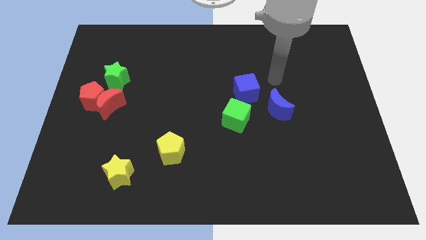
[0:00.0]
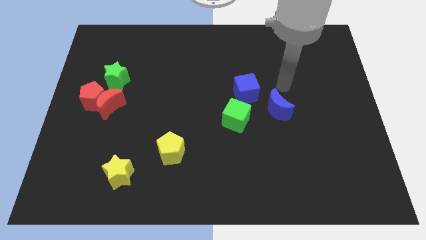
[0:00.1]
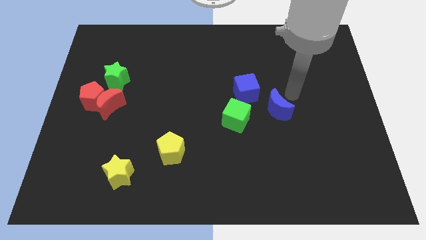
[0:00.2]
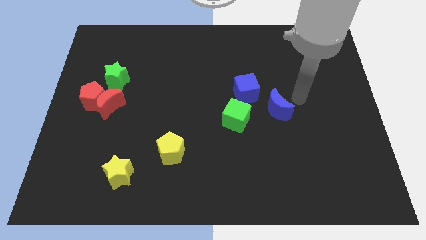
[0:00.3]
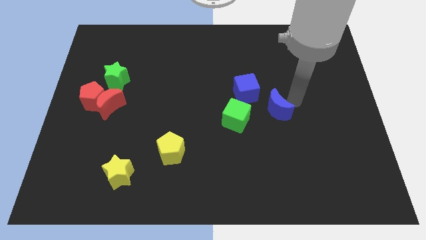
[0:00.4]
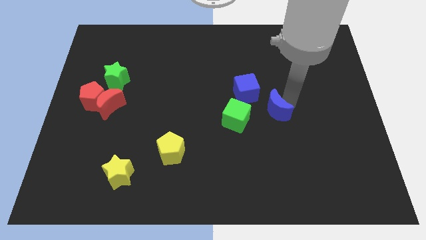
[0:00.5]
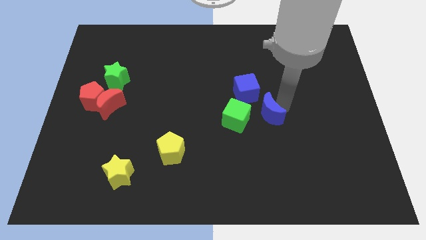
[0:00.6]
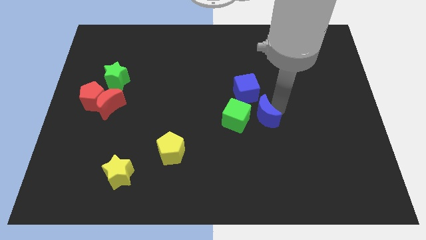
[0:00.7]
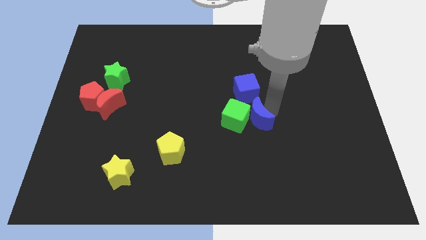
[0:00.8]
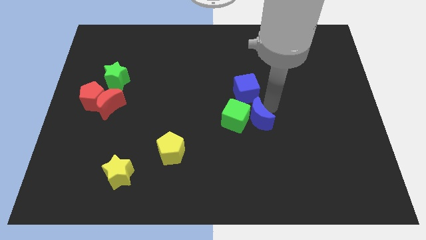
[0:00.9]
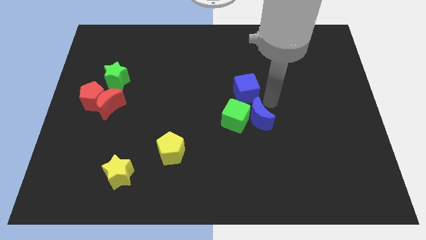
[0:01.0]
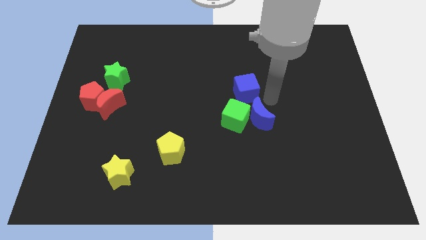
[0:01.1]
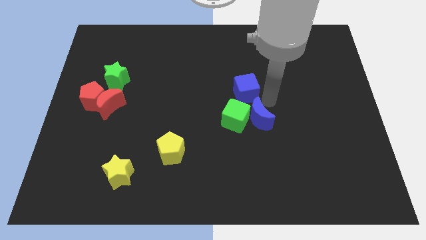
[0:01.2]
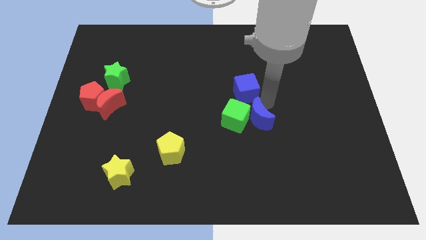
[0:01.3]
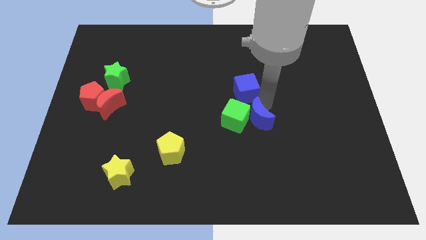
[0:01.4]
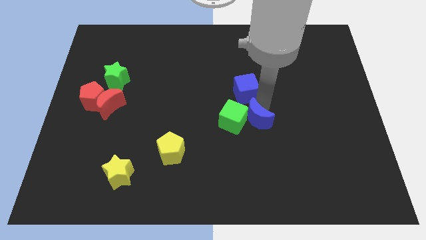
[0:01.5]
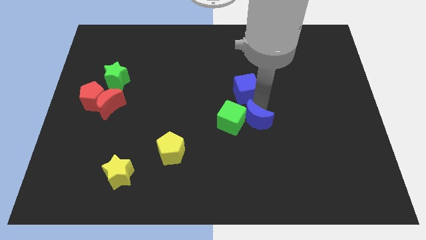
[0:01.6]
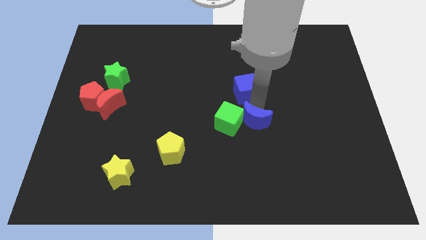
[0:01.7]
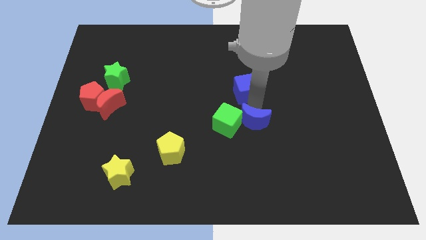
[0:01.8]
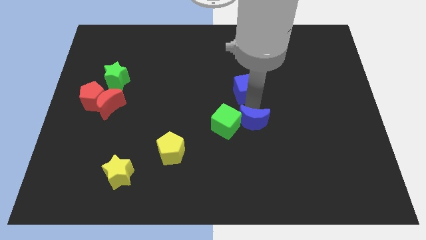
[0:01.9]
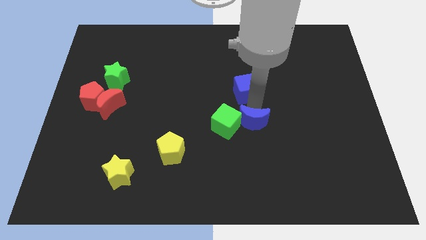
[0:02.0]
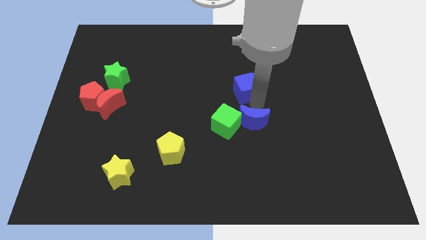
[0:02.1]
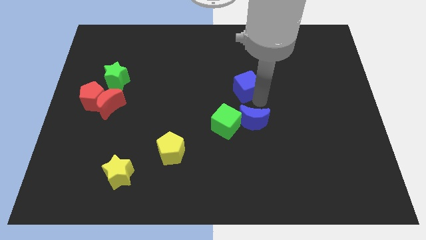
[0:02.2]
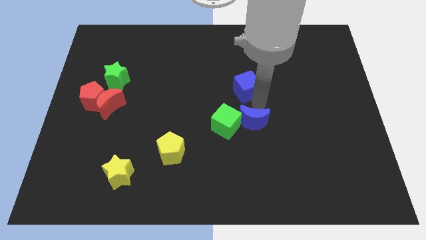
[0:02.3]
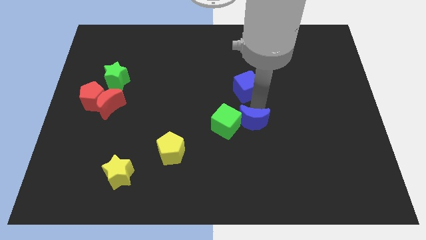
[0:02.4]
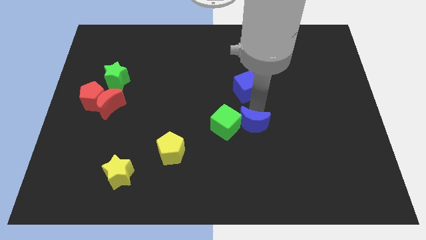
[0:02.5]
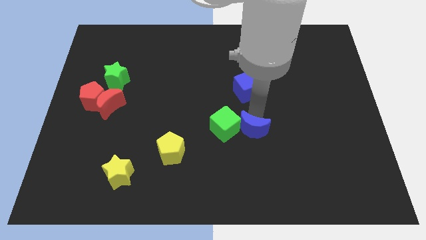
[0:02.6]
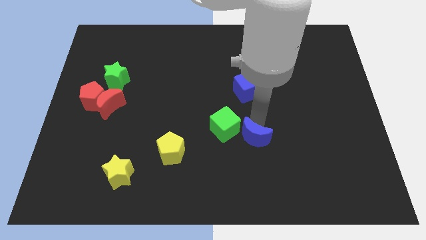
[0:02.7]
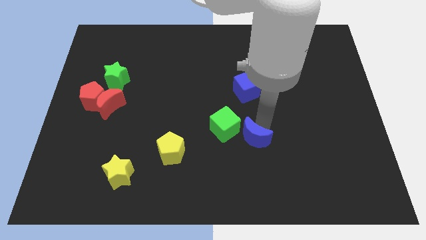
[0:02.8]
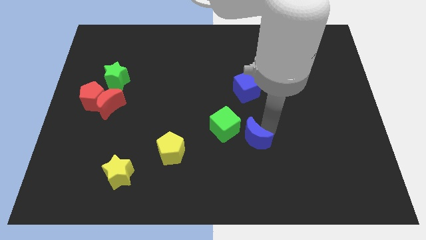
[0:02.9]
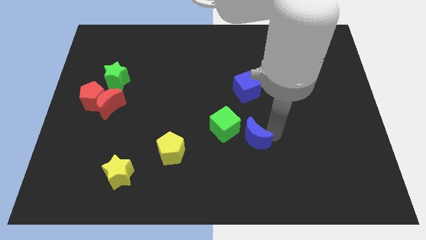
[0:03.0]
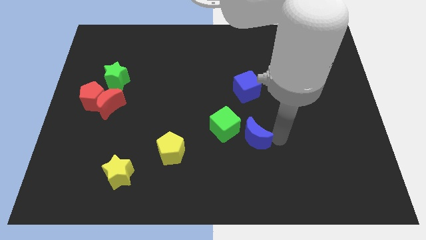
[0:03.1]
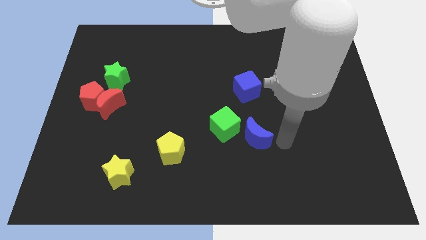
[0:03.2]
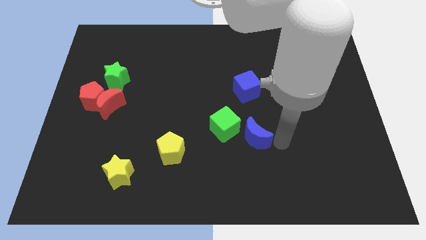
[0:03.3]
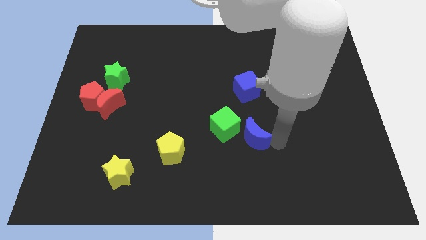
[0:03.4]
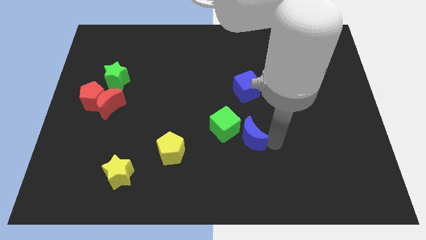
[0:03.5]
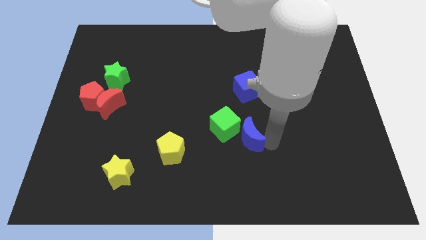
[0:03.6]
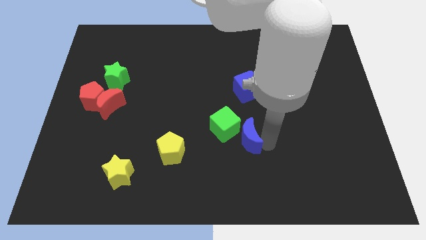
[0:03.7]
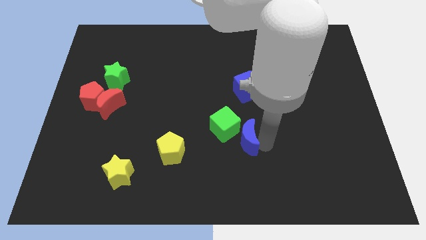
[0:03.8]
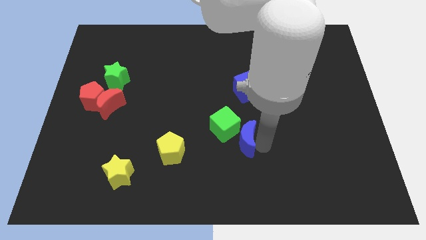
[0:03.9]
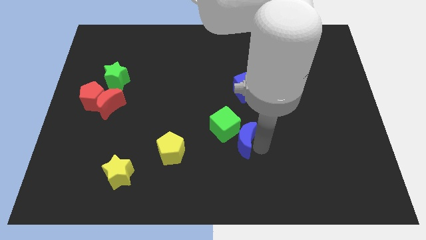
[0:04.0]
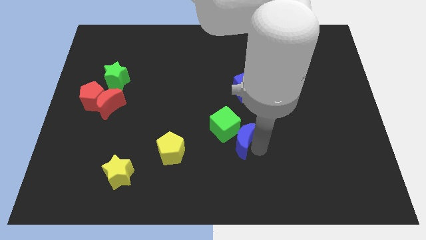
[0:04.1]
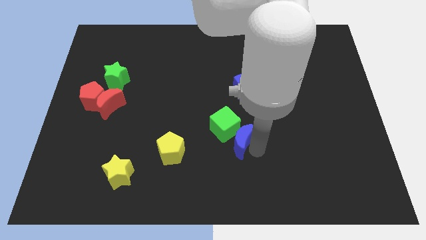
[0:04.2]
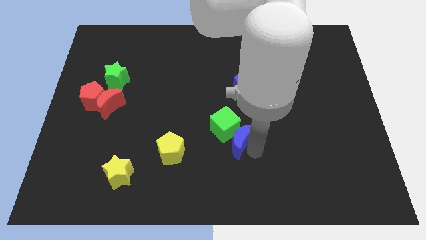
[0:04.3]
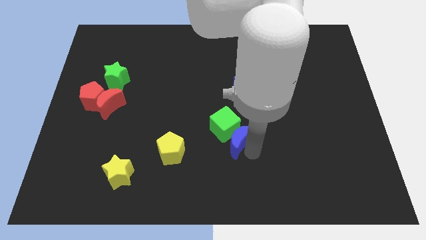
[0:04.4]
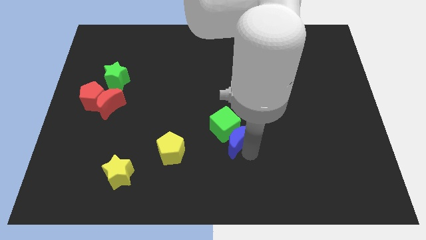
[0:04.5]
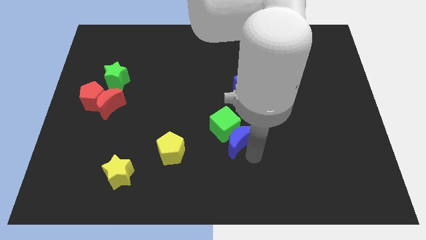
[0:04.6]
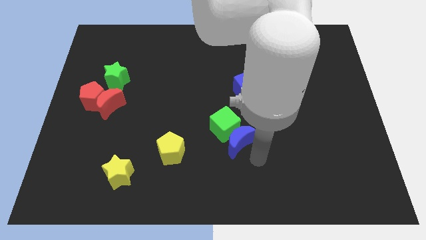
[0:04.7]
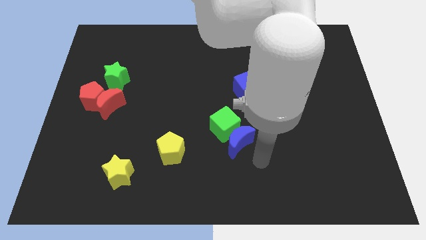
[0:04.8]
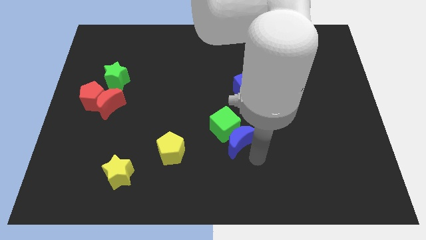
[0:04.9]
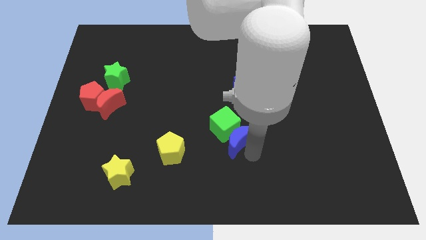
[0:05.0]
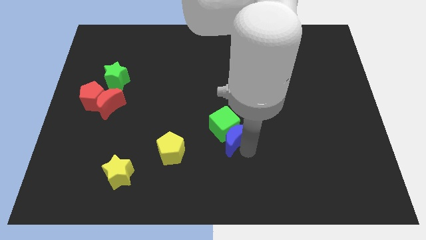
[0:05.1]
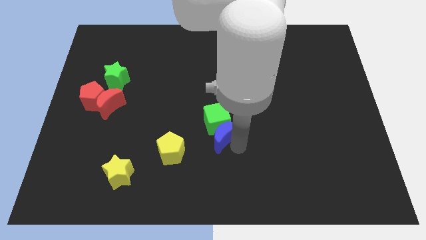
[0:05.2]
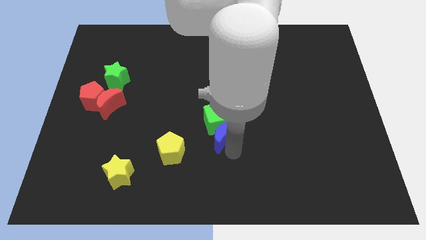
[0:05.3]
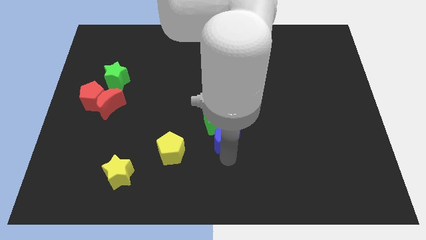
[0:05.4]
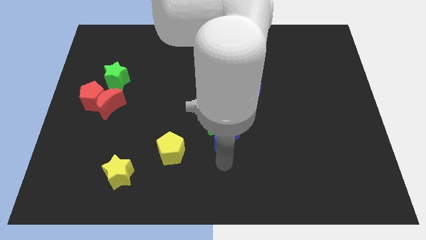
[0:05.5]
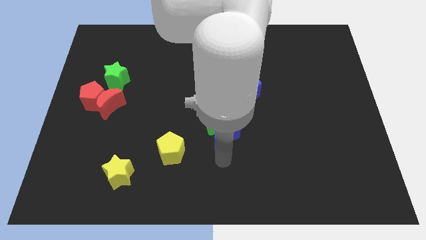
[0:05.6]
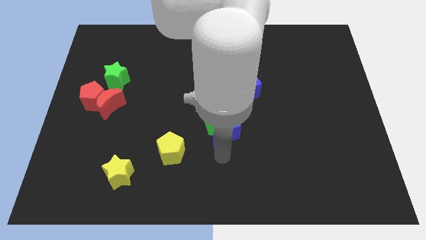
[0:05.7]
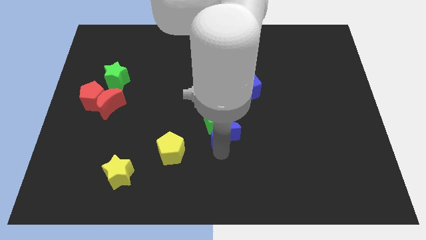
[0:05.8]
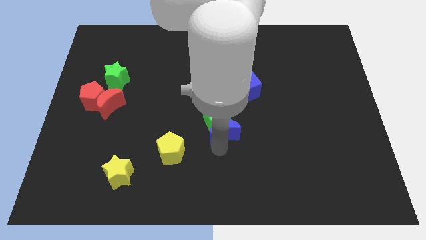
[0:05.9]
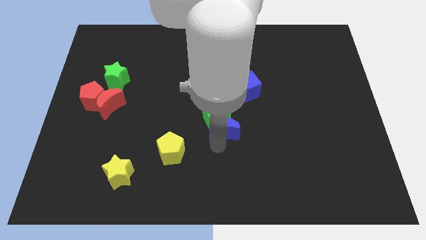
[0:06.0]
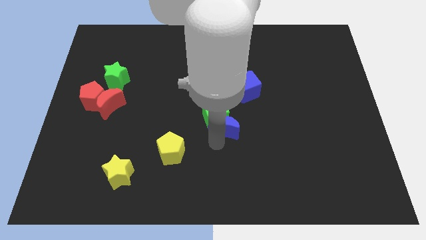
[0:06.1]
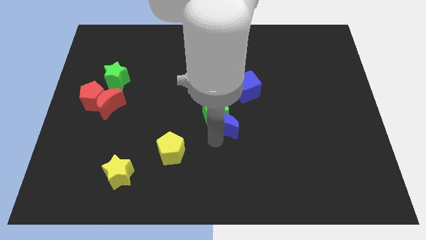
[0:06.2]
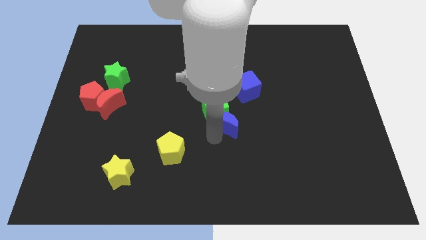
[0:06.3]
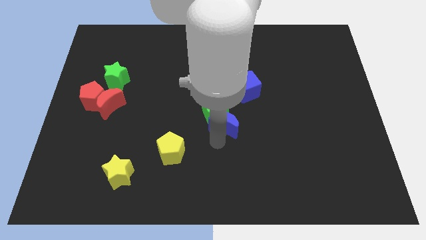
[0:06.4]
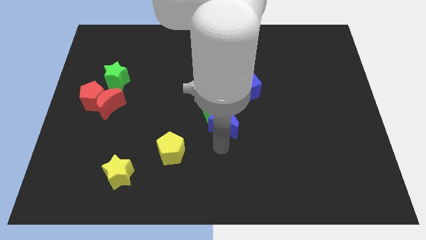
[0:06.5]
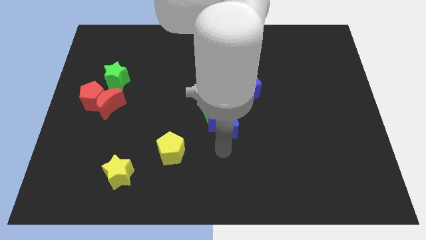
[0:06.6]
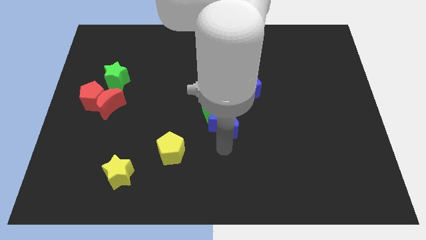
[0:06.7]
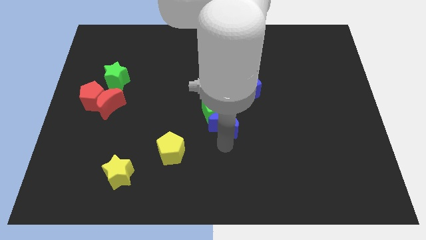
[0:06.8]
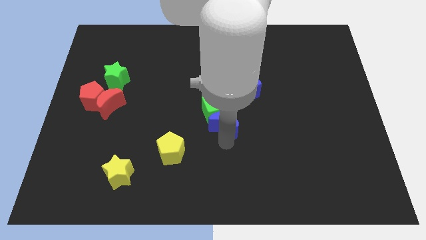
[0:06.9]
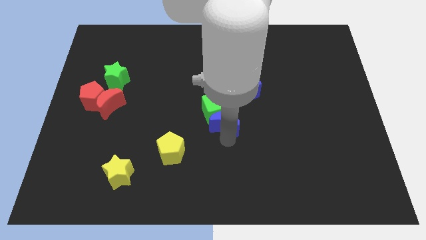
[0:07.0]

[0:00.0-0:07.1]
move the blue moon diagonally down and to the left of the blue cube
